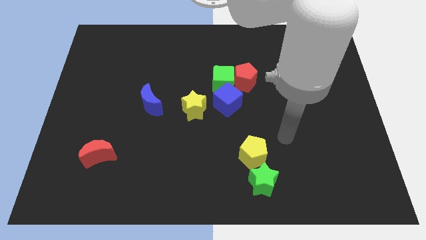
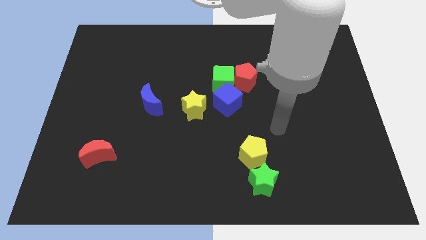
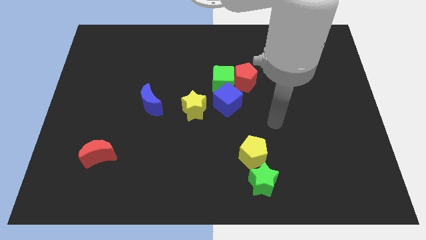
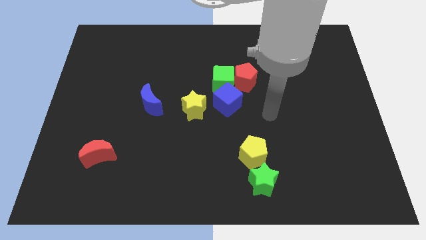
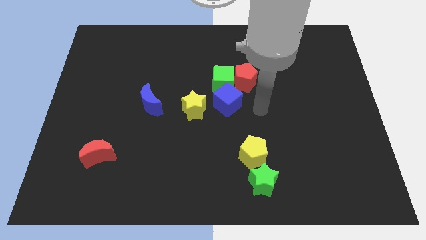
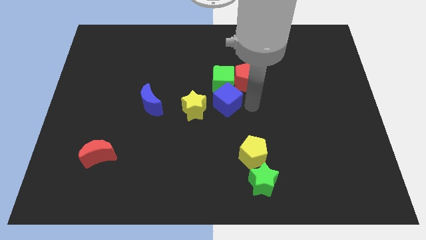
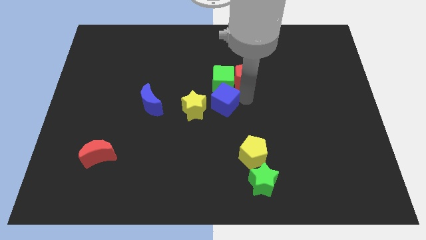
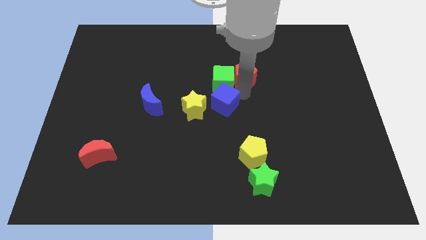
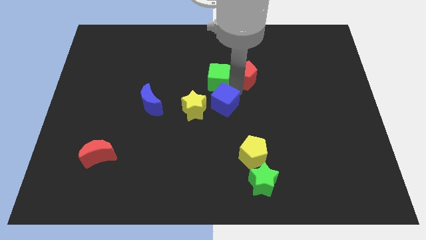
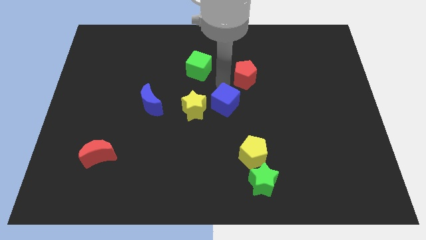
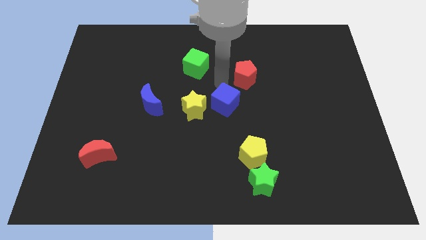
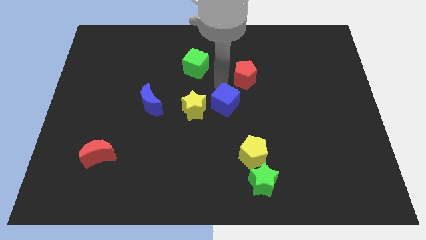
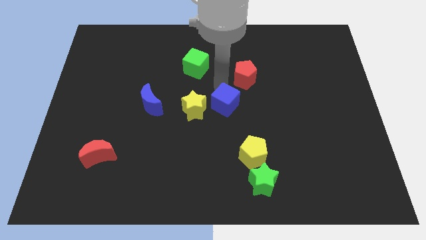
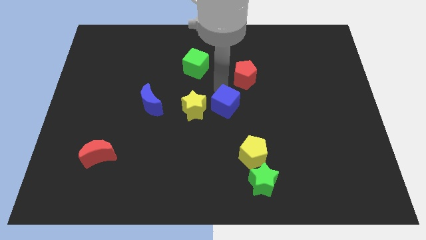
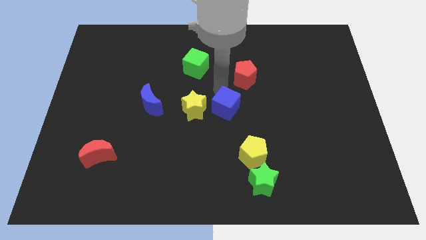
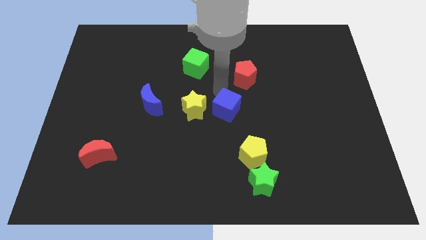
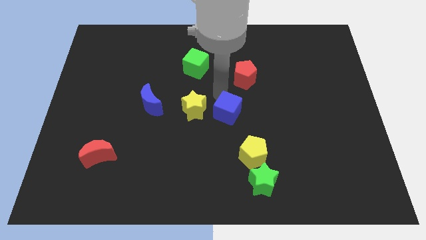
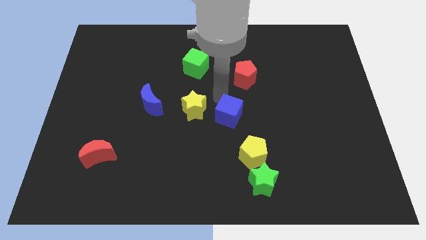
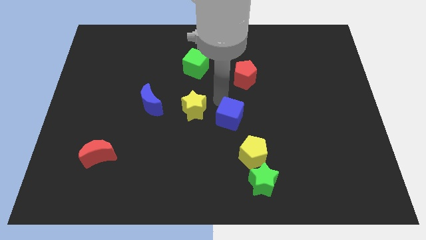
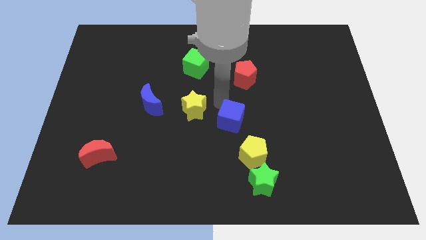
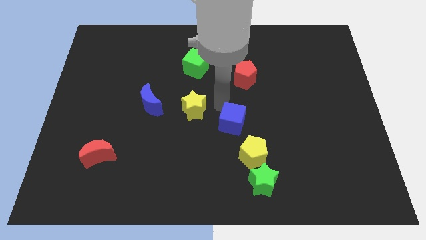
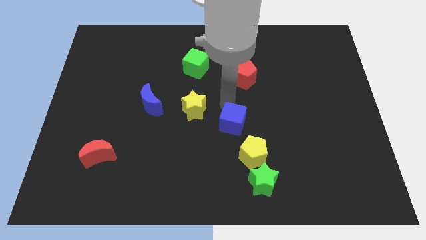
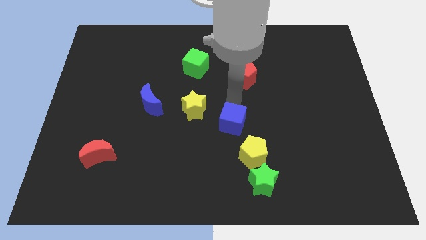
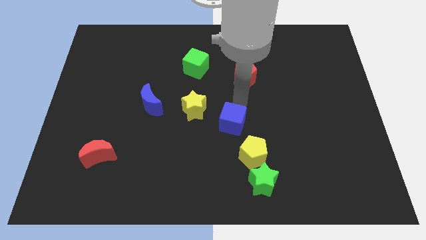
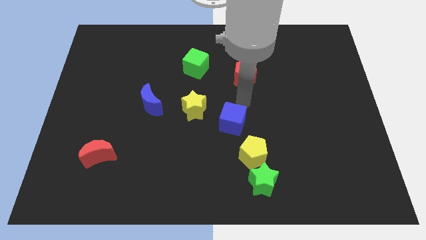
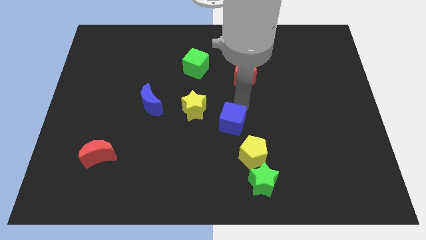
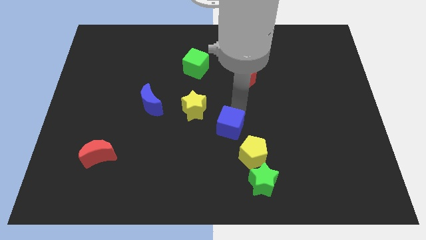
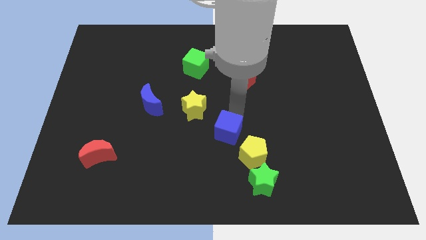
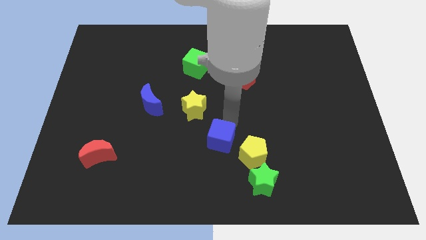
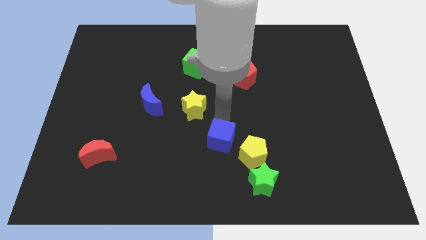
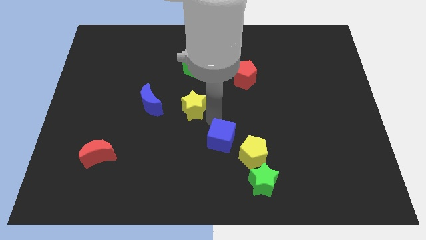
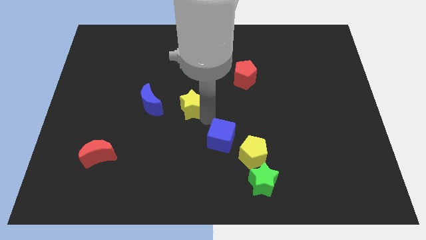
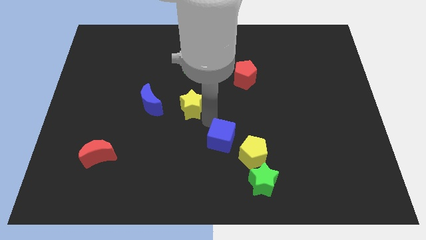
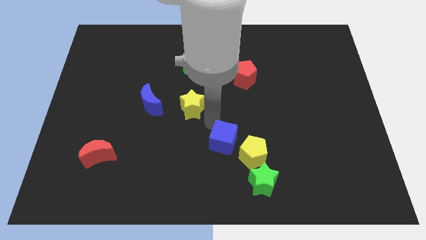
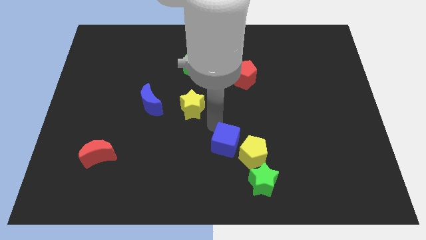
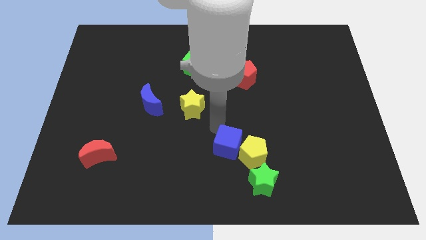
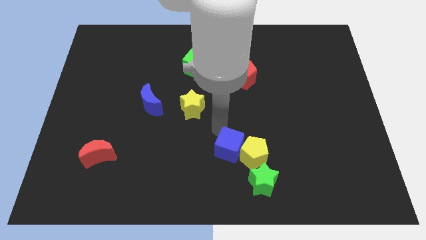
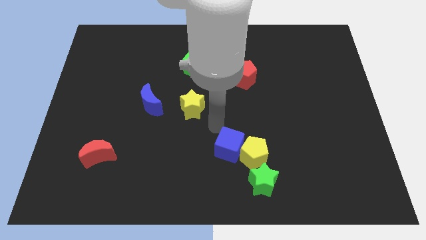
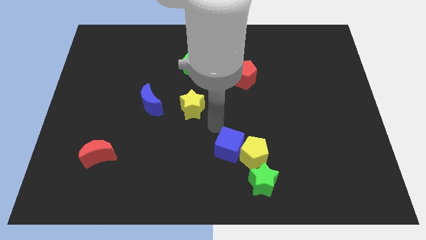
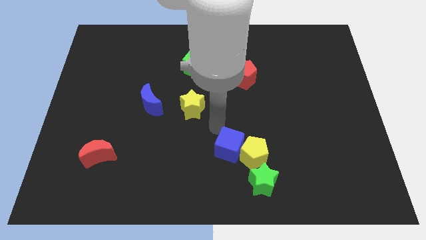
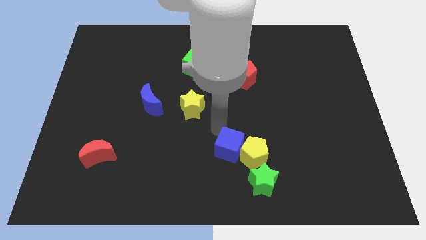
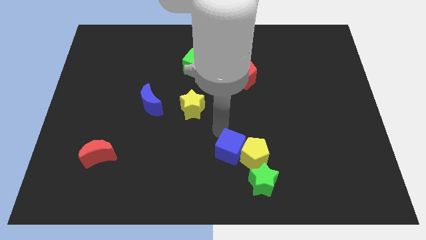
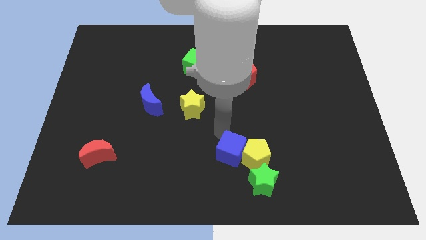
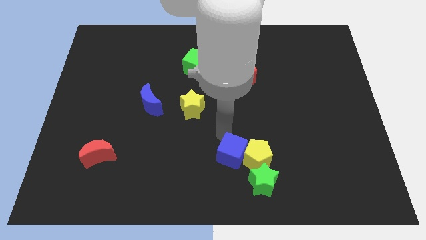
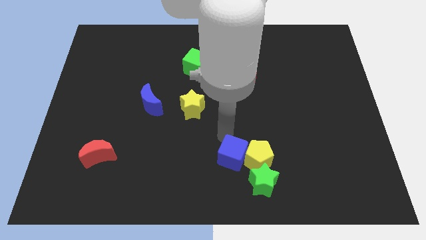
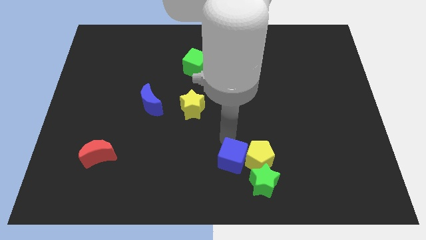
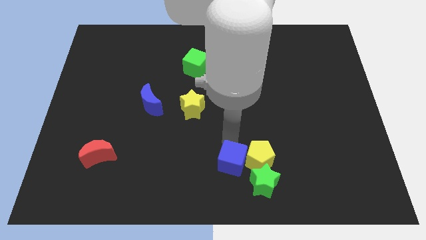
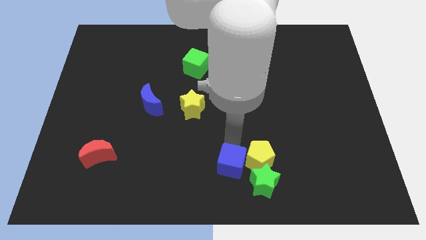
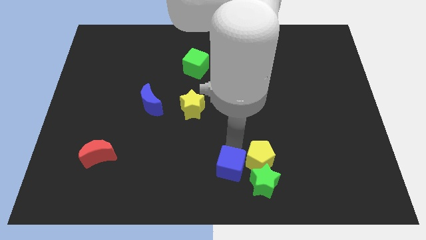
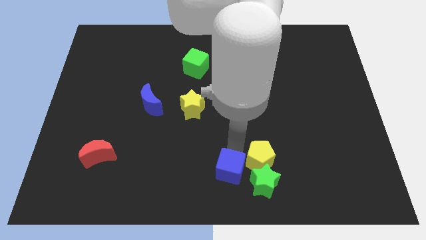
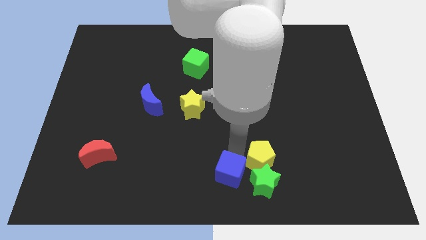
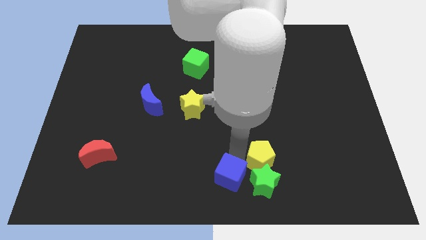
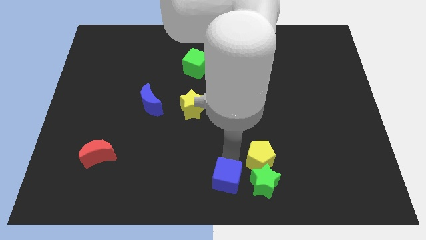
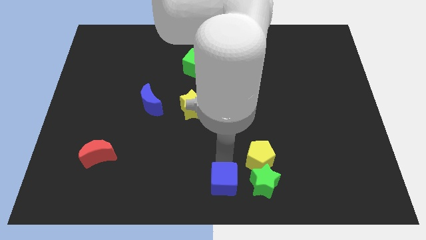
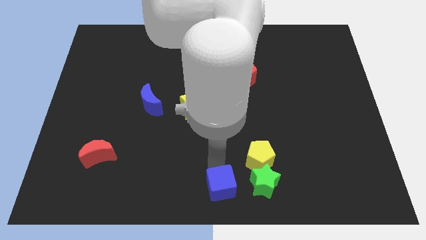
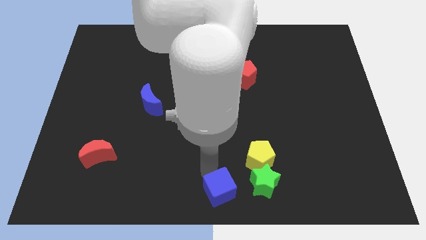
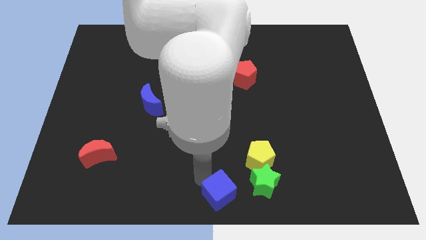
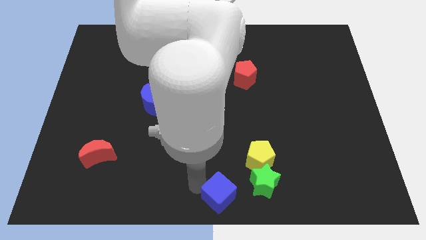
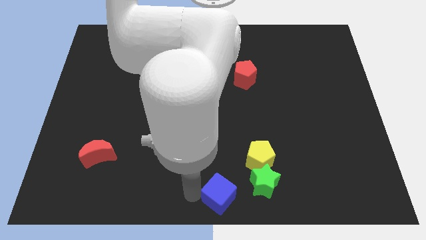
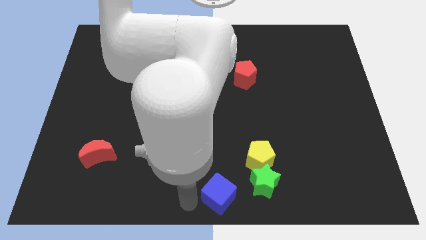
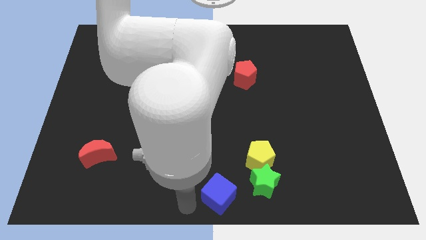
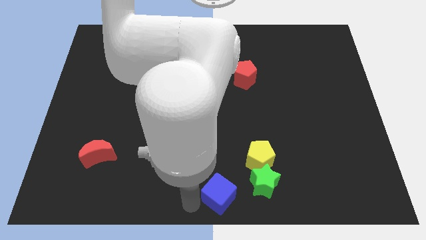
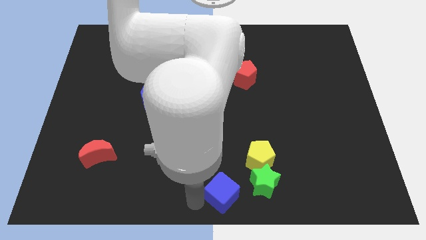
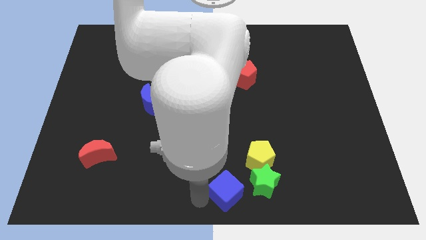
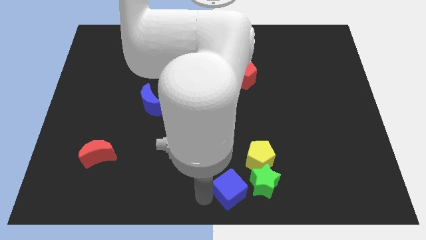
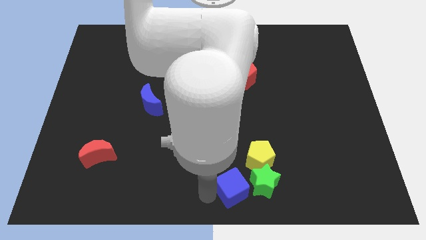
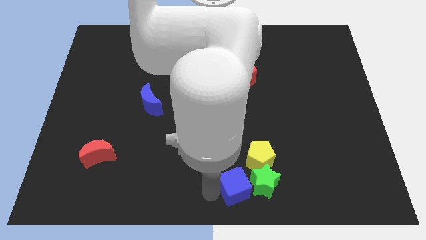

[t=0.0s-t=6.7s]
slide the blue cube to the green star

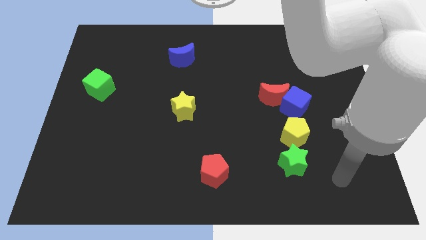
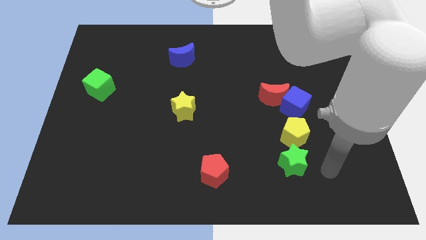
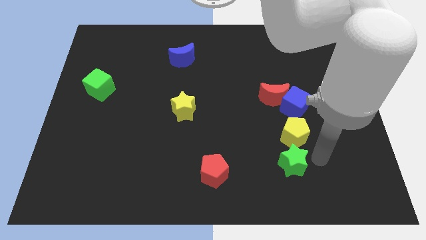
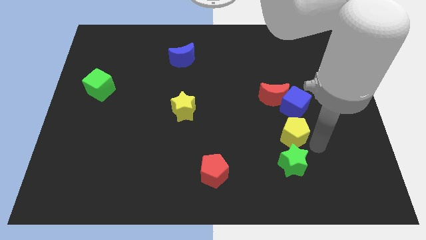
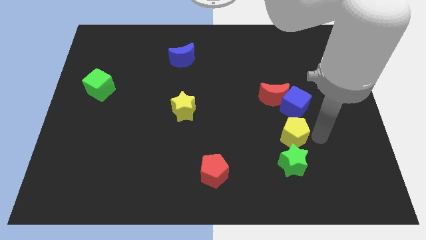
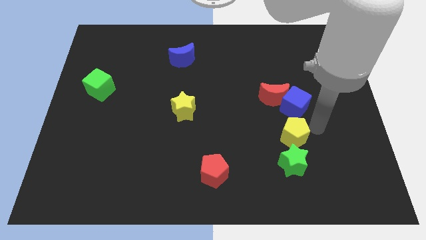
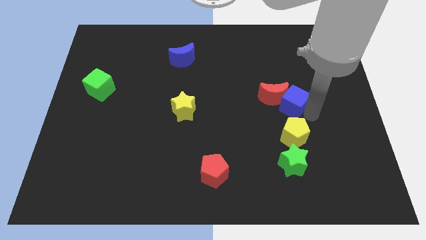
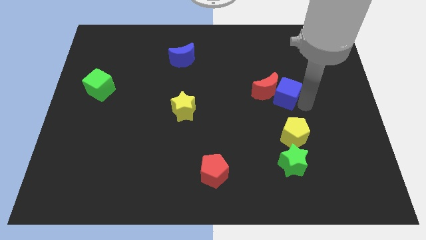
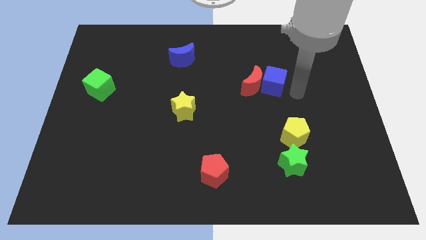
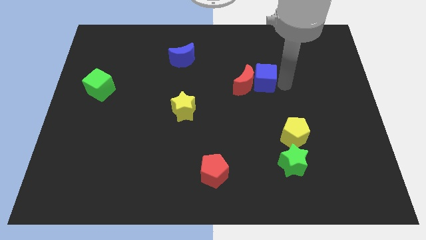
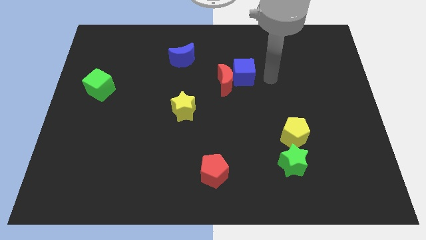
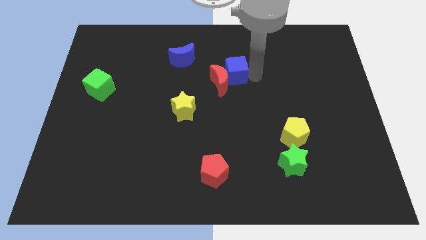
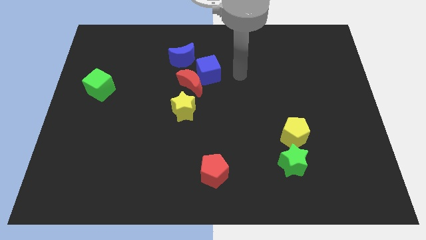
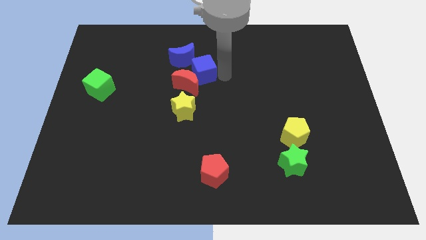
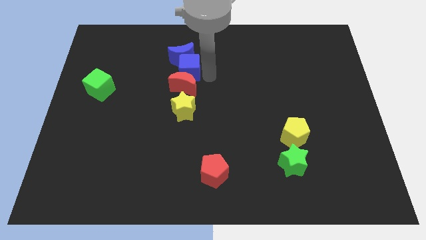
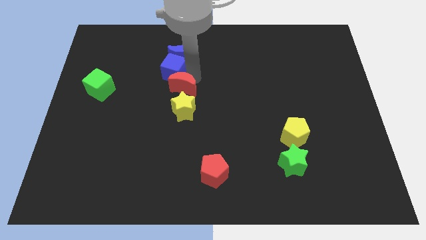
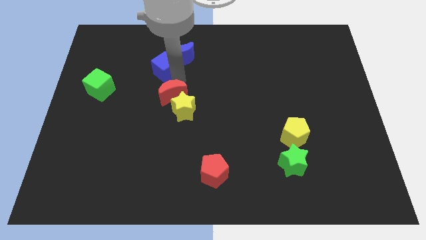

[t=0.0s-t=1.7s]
put the red moon next to the yellow star
